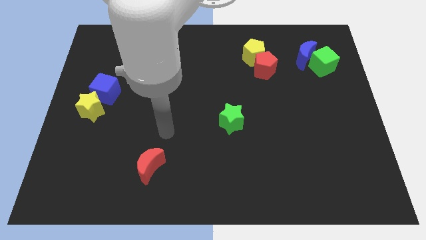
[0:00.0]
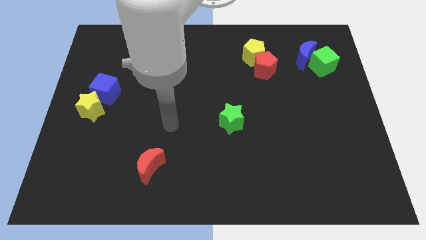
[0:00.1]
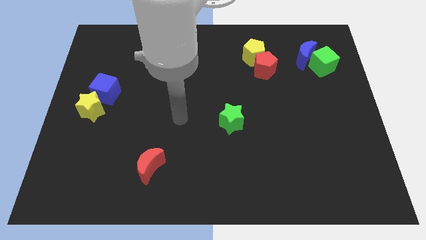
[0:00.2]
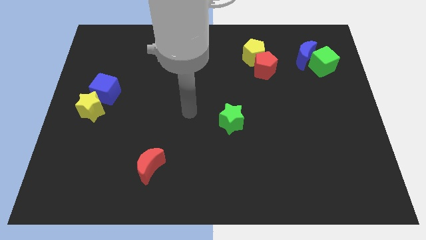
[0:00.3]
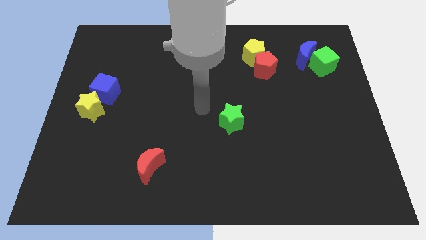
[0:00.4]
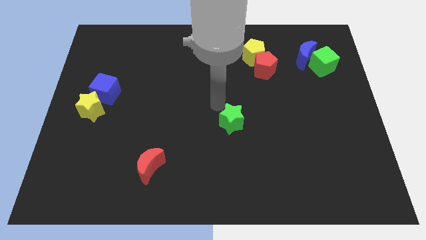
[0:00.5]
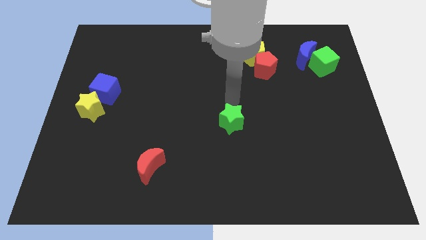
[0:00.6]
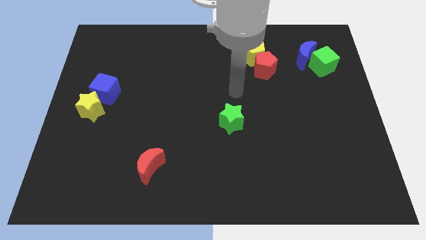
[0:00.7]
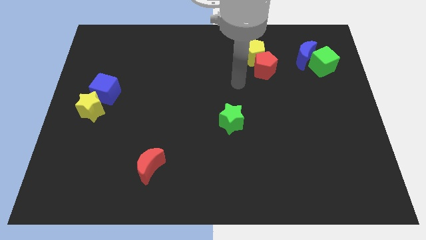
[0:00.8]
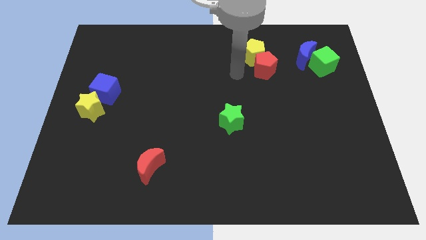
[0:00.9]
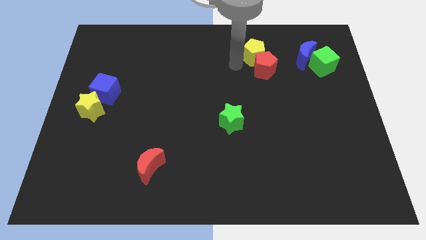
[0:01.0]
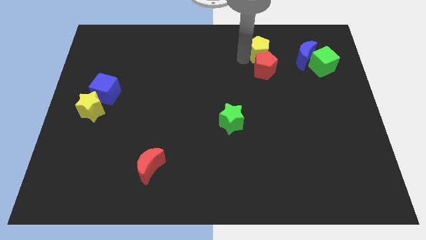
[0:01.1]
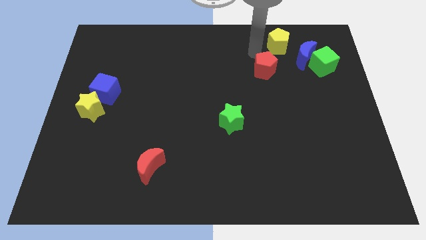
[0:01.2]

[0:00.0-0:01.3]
separate the red pentagon from the yellow pentagon

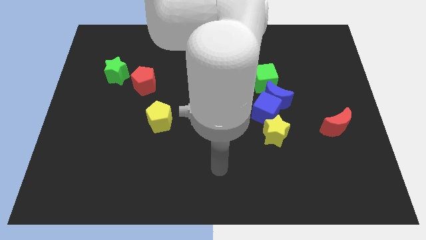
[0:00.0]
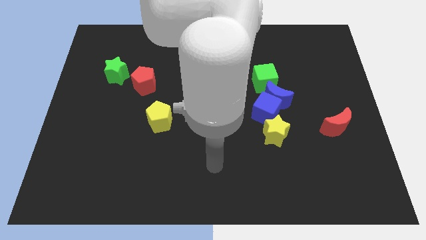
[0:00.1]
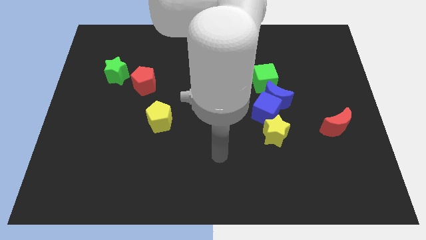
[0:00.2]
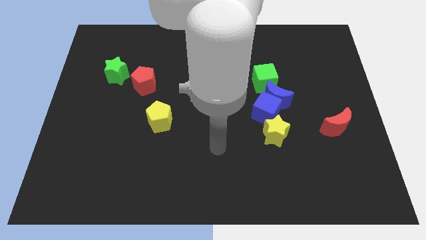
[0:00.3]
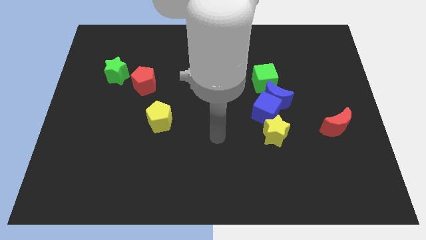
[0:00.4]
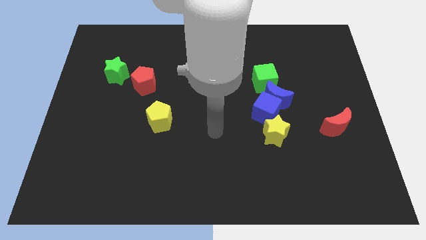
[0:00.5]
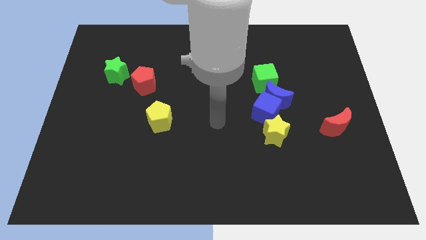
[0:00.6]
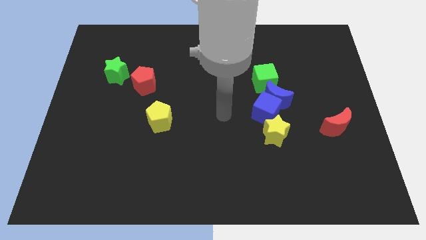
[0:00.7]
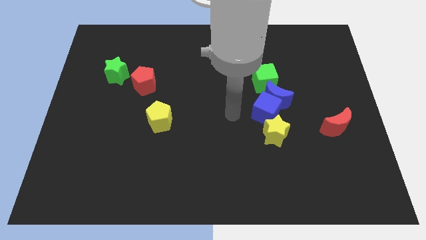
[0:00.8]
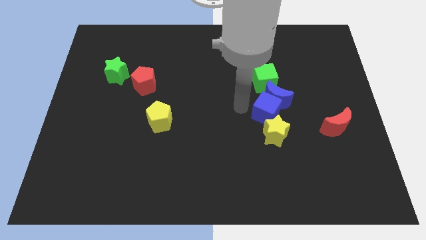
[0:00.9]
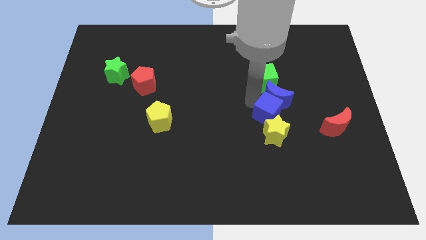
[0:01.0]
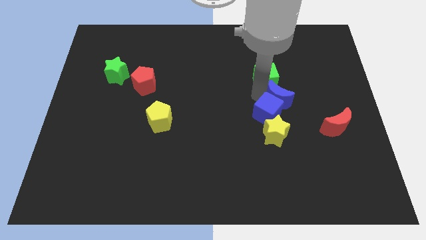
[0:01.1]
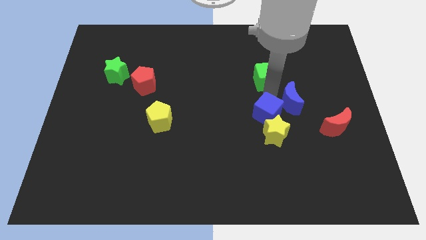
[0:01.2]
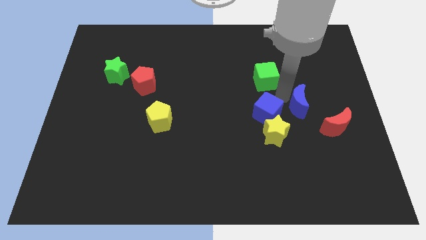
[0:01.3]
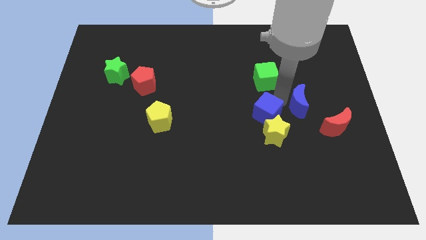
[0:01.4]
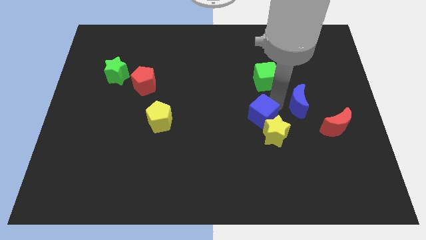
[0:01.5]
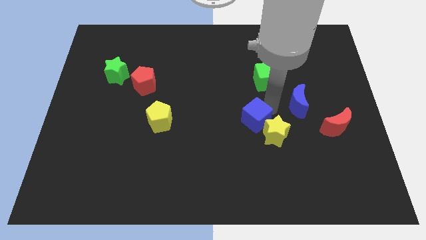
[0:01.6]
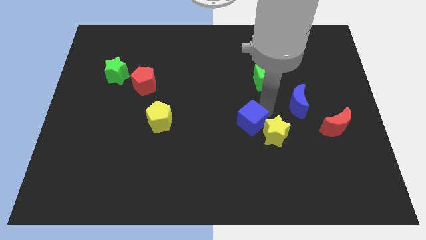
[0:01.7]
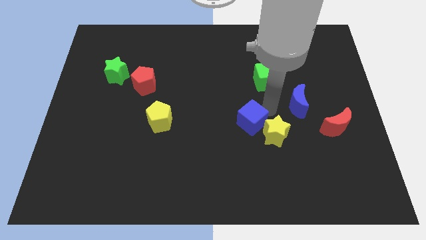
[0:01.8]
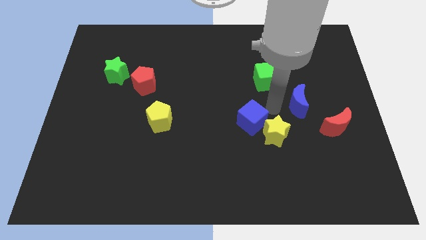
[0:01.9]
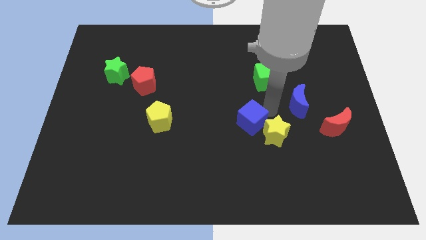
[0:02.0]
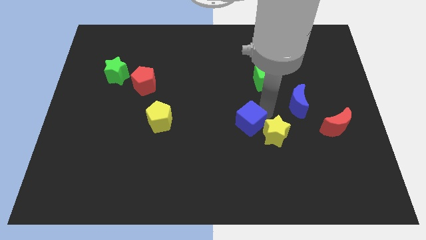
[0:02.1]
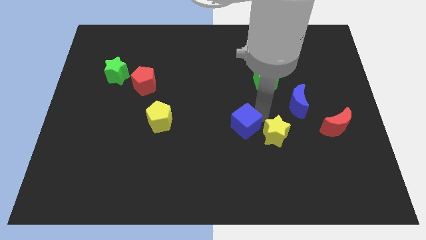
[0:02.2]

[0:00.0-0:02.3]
pull the blue cube apart from the blue moon, yellow star, and green cube

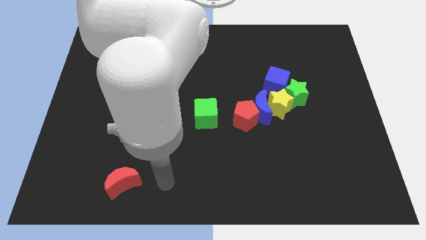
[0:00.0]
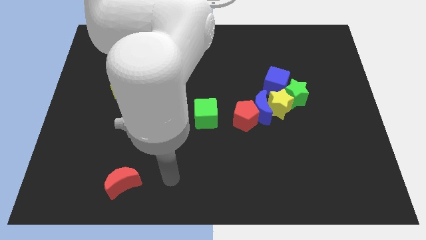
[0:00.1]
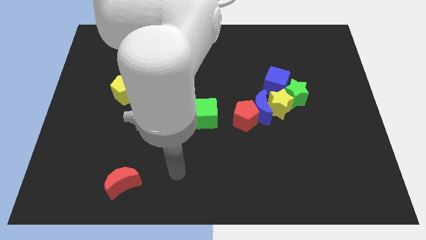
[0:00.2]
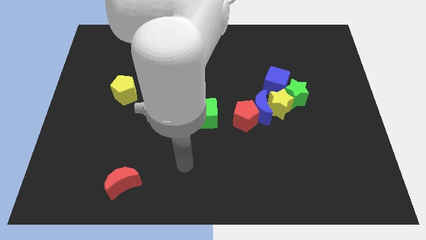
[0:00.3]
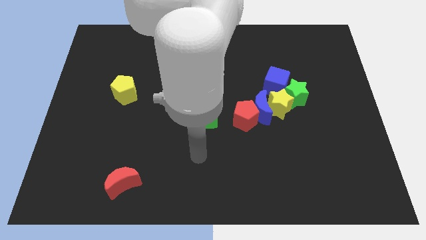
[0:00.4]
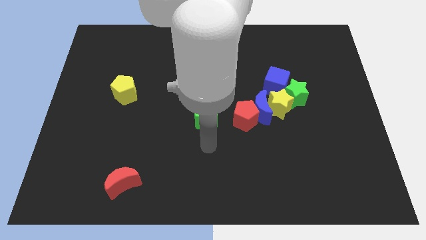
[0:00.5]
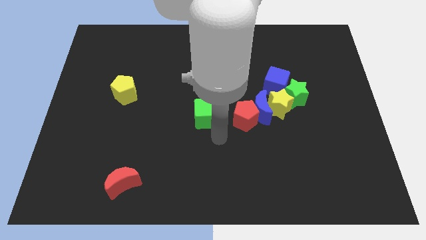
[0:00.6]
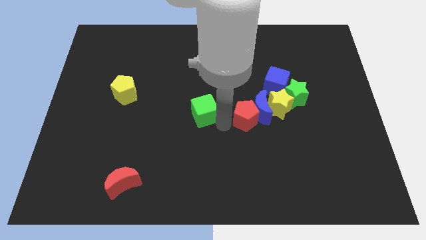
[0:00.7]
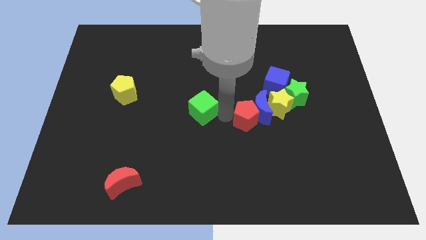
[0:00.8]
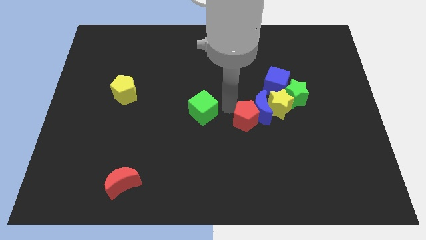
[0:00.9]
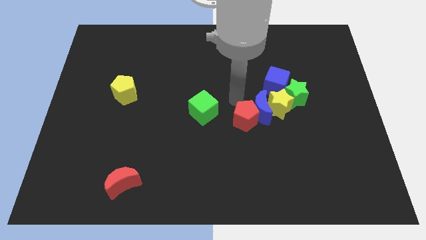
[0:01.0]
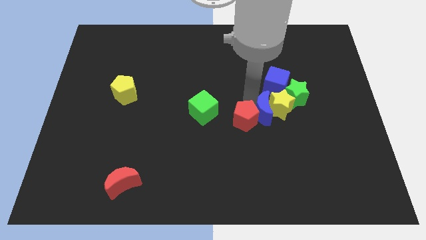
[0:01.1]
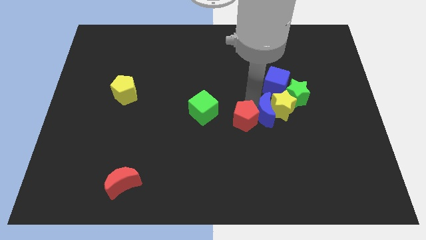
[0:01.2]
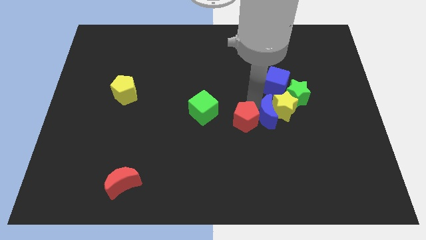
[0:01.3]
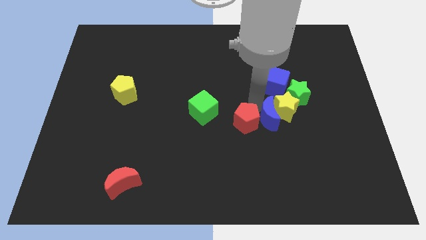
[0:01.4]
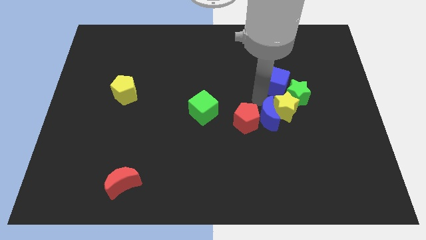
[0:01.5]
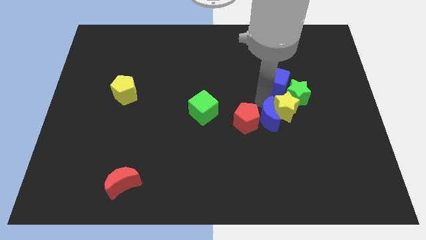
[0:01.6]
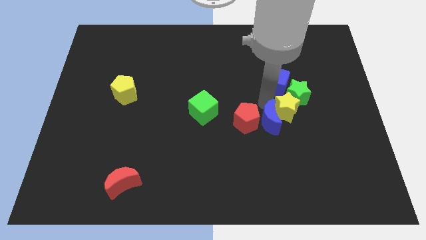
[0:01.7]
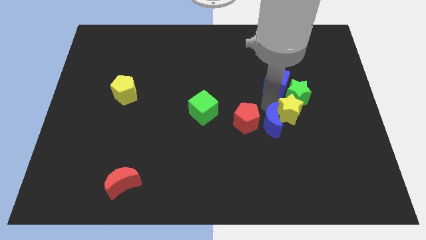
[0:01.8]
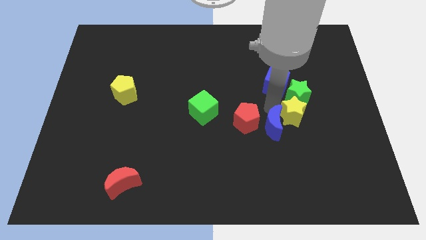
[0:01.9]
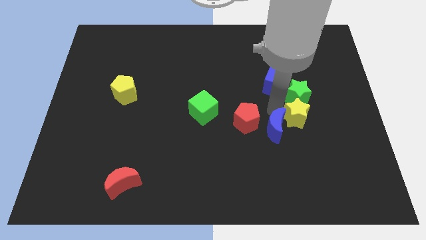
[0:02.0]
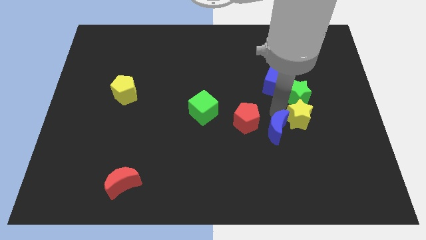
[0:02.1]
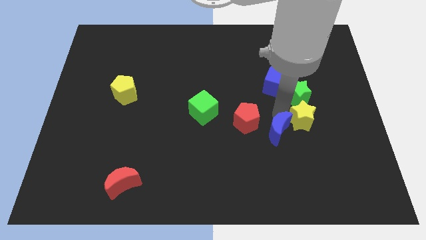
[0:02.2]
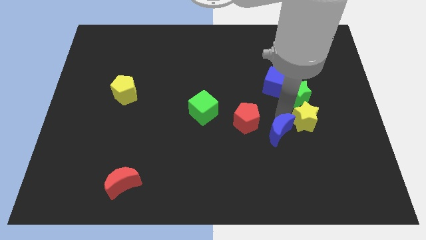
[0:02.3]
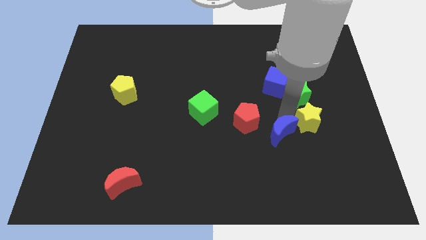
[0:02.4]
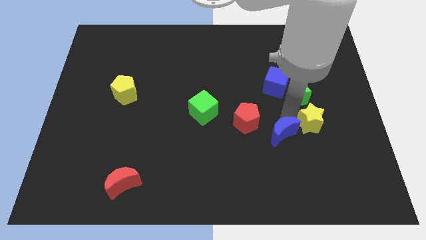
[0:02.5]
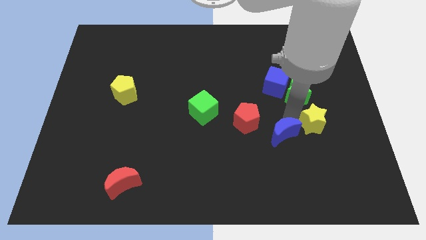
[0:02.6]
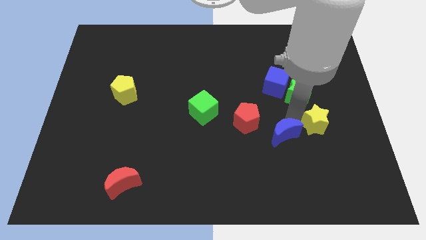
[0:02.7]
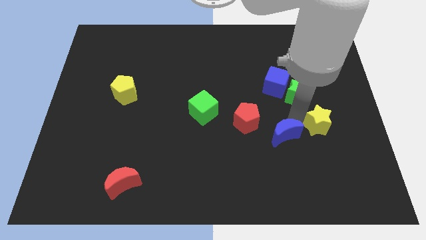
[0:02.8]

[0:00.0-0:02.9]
move the yellow star away from the clump

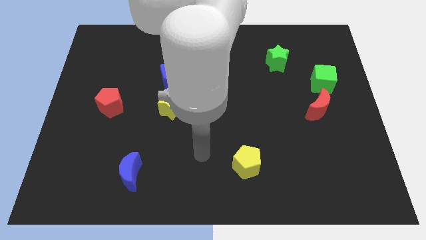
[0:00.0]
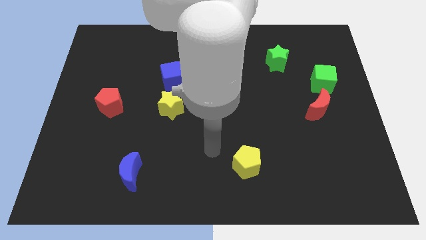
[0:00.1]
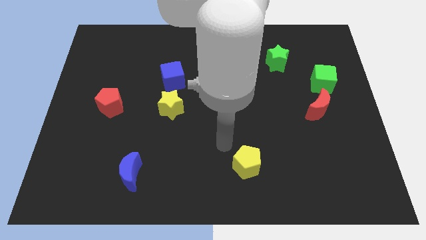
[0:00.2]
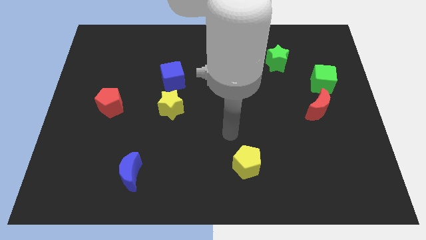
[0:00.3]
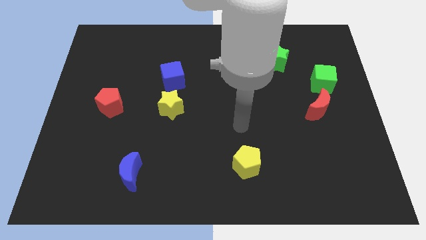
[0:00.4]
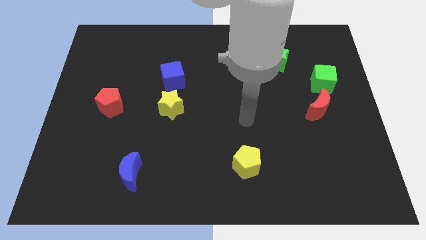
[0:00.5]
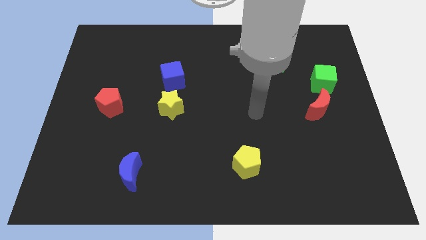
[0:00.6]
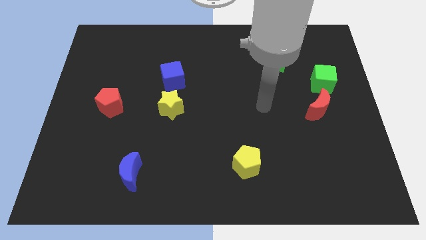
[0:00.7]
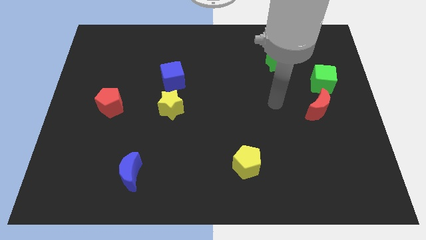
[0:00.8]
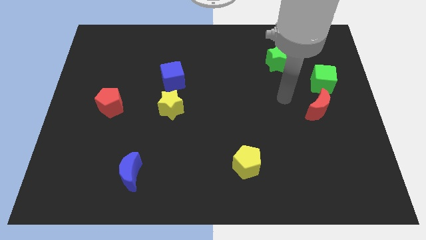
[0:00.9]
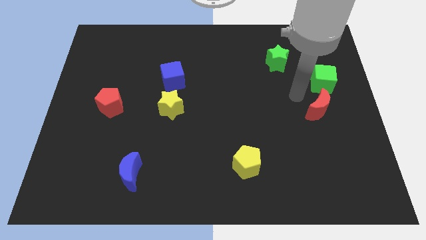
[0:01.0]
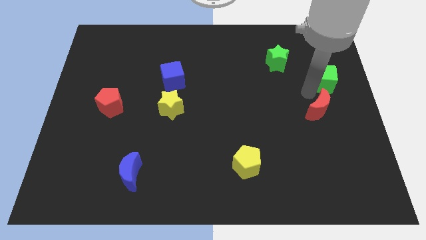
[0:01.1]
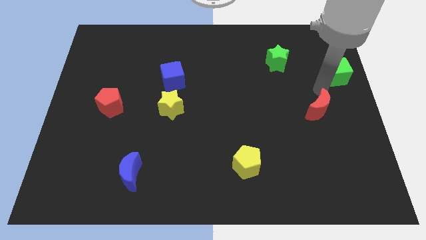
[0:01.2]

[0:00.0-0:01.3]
separate the red moon from the green cube

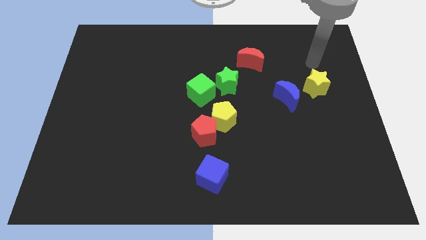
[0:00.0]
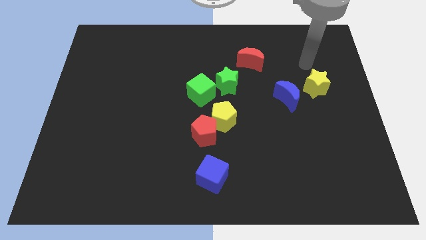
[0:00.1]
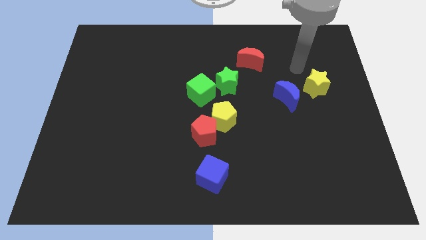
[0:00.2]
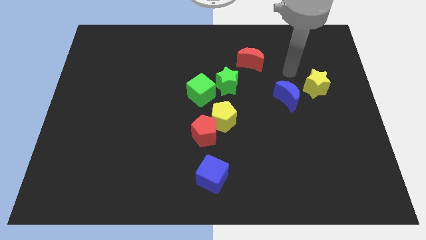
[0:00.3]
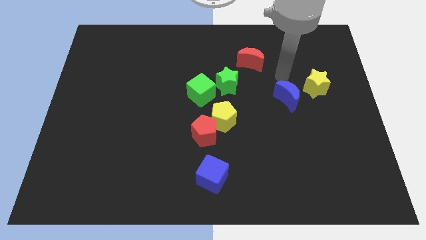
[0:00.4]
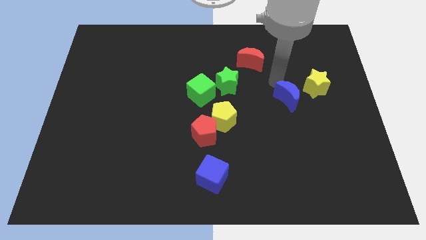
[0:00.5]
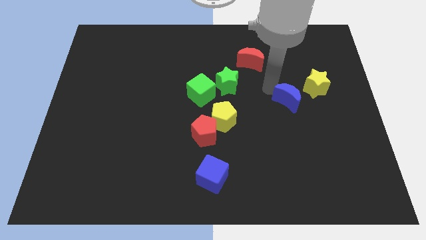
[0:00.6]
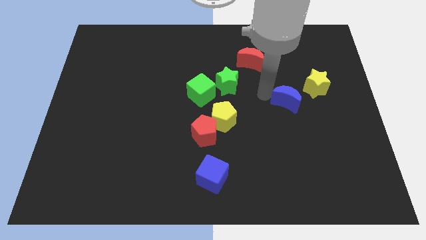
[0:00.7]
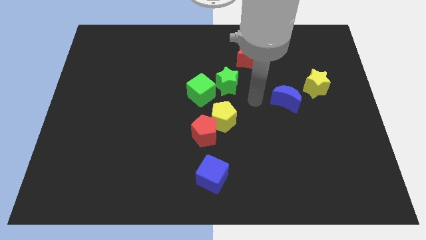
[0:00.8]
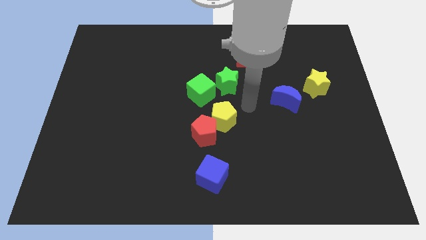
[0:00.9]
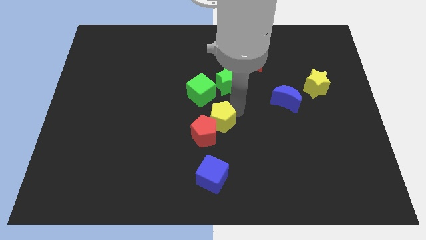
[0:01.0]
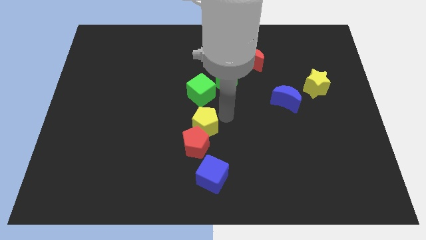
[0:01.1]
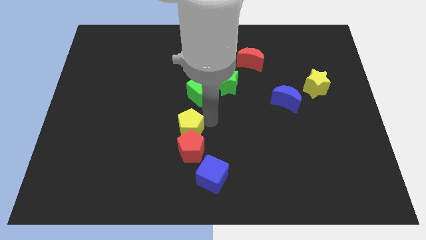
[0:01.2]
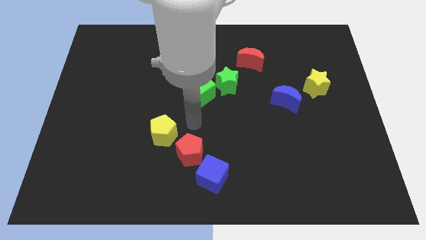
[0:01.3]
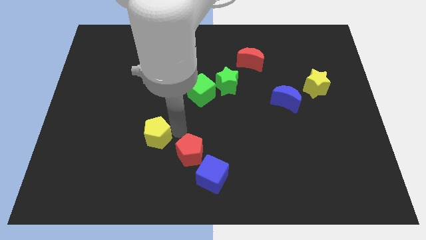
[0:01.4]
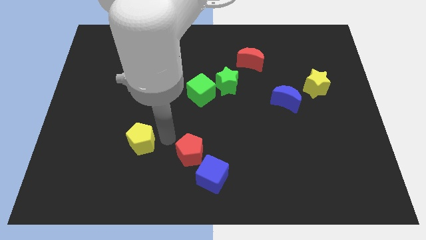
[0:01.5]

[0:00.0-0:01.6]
pull the red pentagon apart from the yellow pentagon
